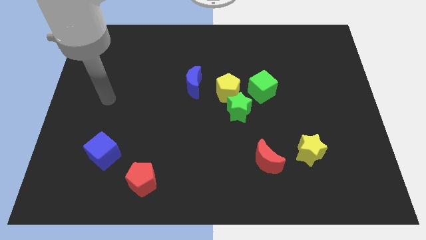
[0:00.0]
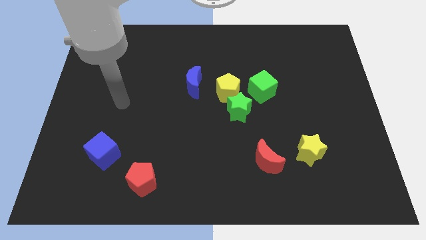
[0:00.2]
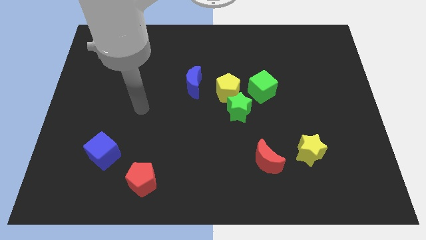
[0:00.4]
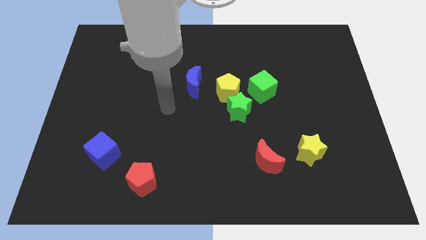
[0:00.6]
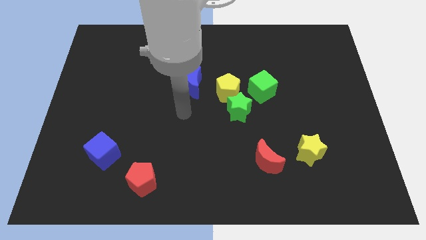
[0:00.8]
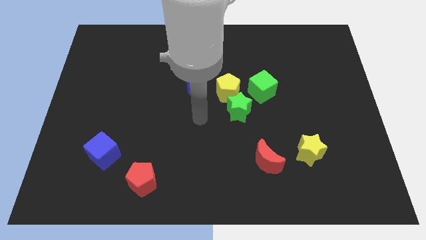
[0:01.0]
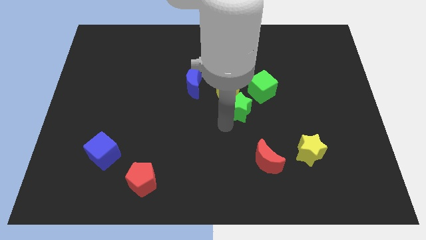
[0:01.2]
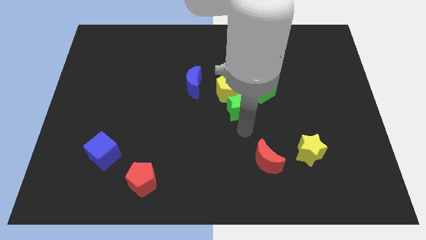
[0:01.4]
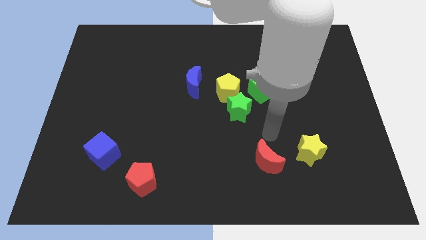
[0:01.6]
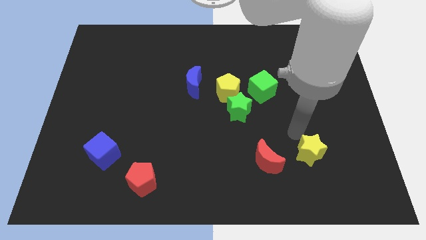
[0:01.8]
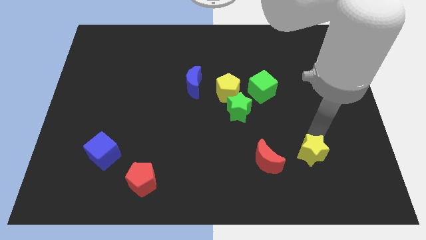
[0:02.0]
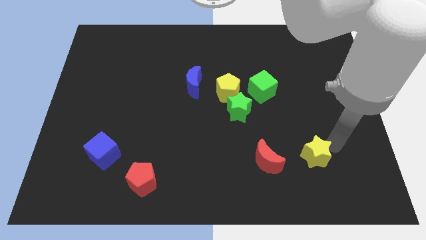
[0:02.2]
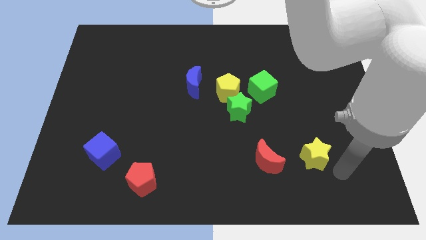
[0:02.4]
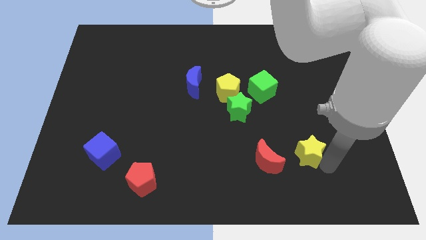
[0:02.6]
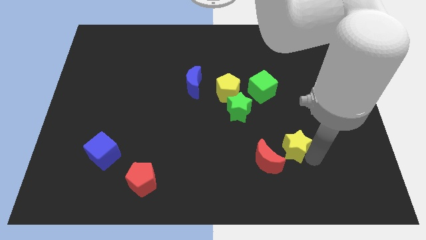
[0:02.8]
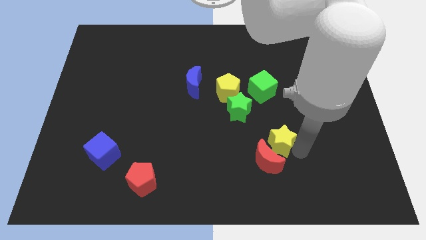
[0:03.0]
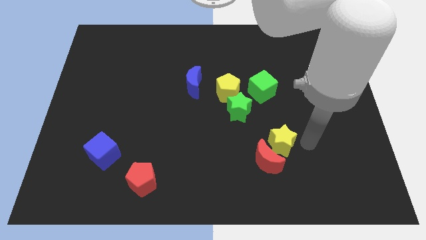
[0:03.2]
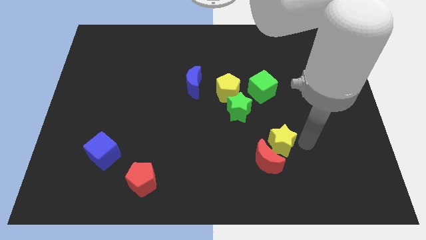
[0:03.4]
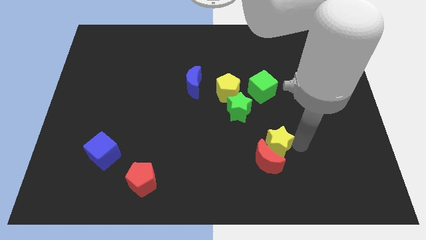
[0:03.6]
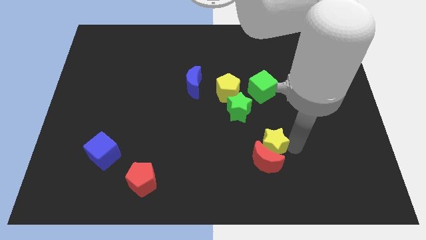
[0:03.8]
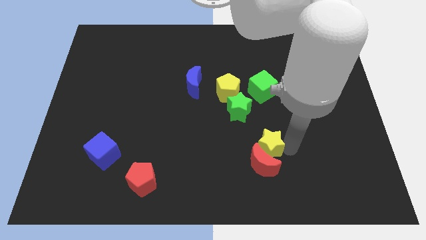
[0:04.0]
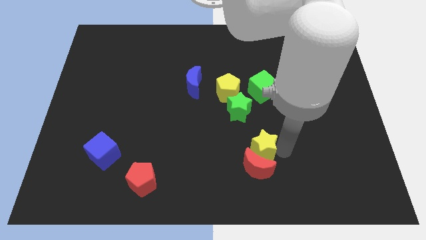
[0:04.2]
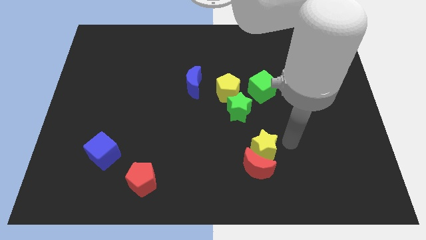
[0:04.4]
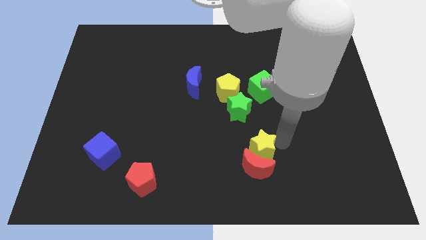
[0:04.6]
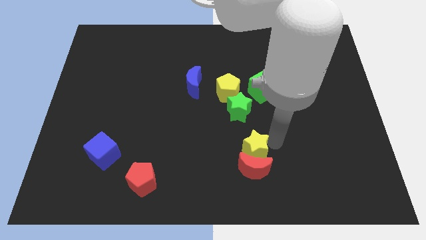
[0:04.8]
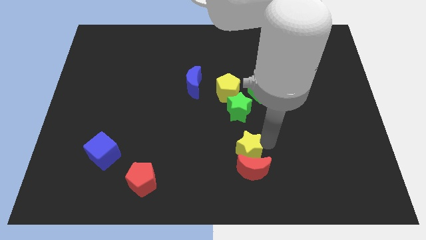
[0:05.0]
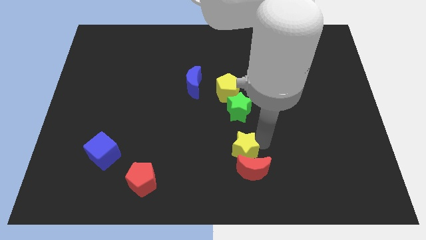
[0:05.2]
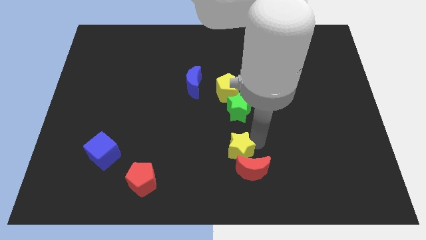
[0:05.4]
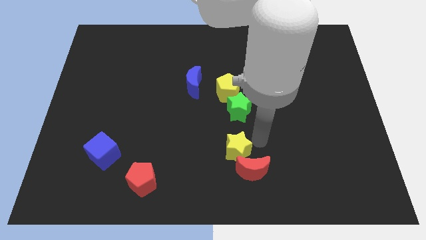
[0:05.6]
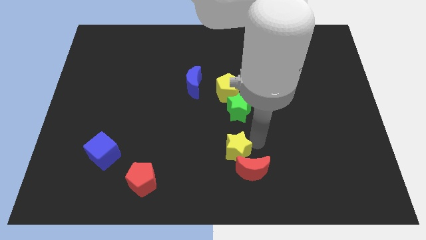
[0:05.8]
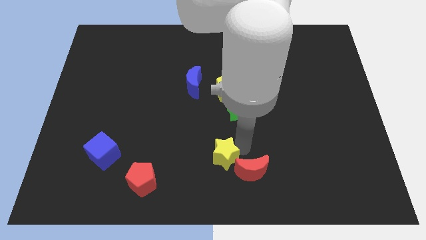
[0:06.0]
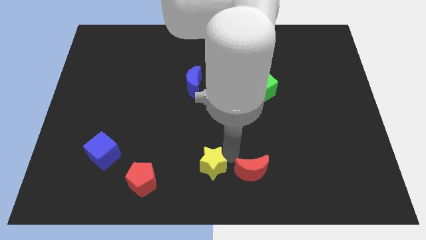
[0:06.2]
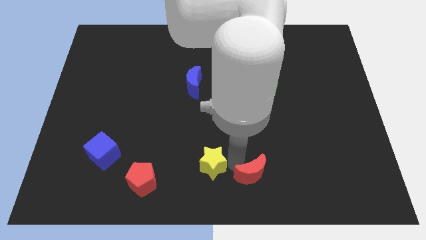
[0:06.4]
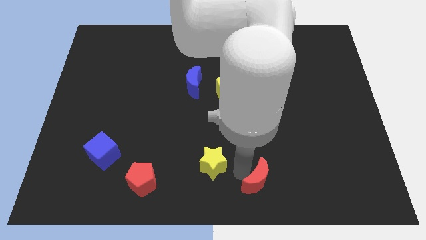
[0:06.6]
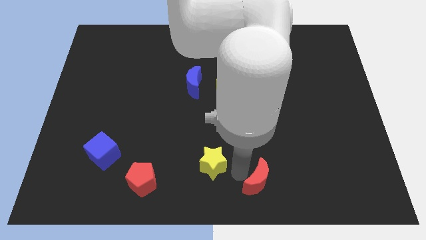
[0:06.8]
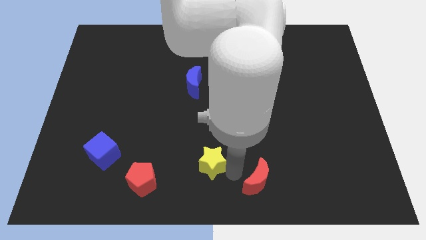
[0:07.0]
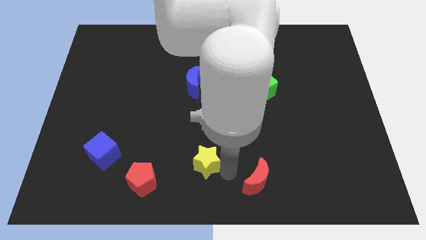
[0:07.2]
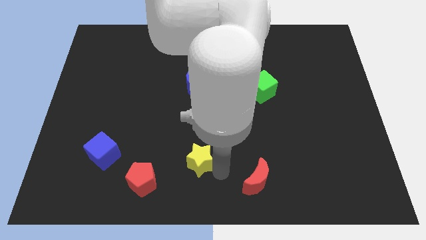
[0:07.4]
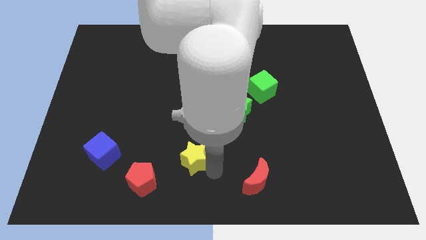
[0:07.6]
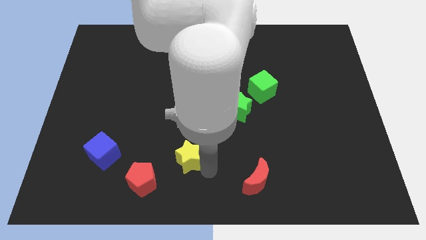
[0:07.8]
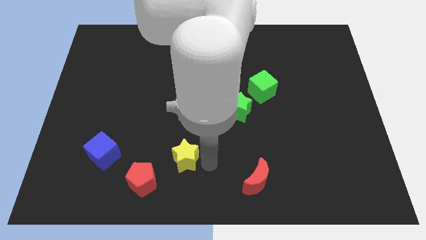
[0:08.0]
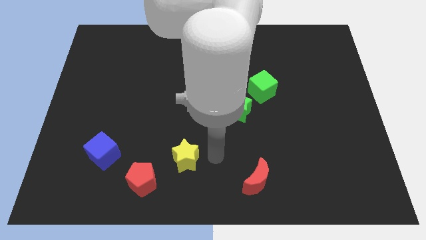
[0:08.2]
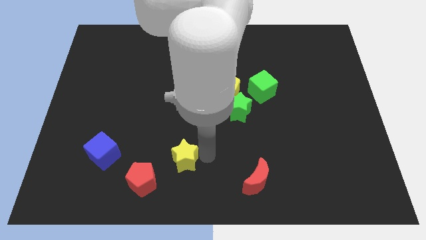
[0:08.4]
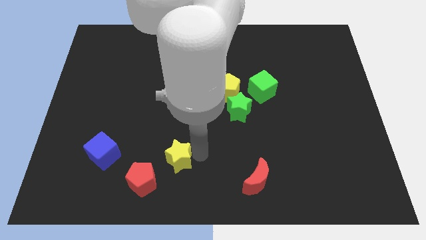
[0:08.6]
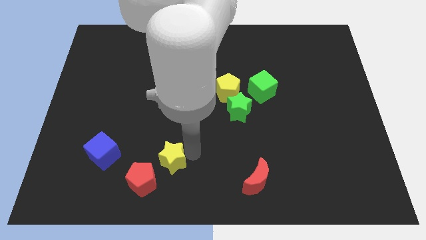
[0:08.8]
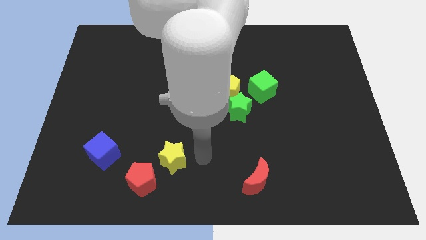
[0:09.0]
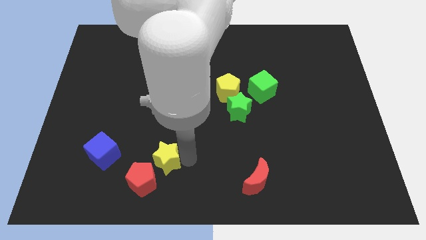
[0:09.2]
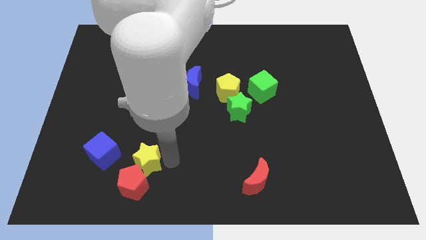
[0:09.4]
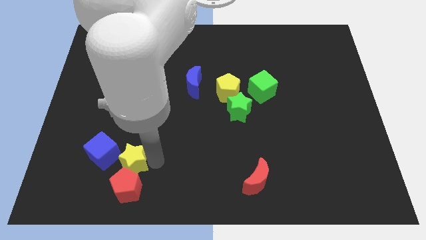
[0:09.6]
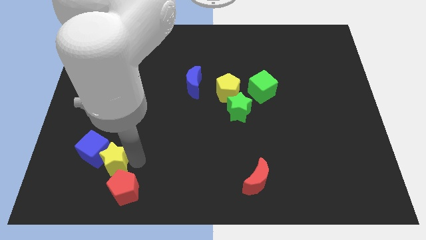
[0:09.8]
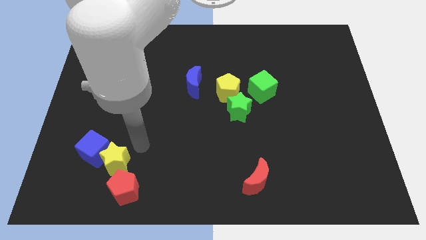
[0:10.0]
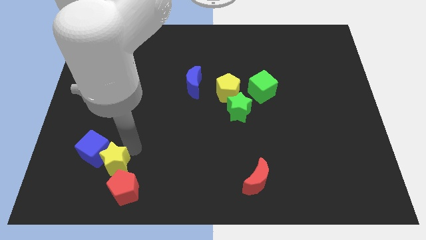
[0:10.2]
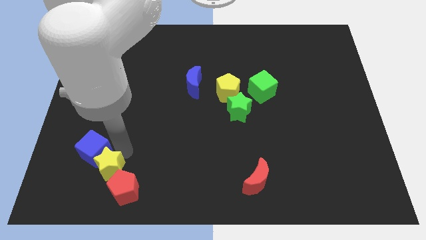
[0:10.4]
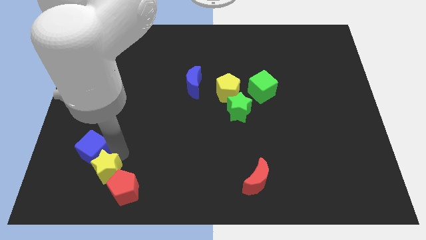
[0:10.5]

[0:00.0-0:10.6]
slide the yellow star to the left side of the red pentagon

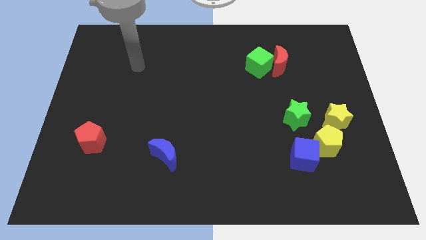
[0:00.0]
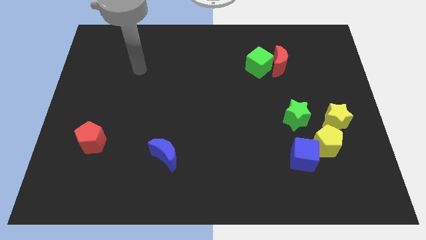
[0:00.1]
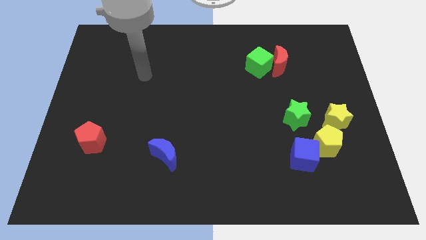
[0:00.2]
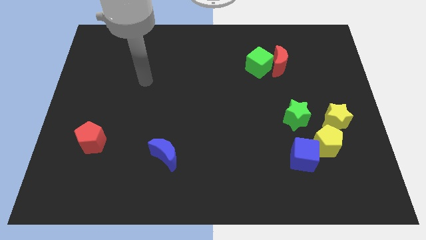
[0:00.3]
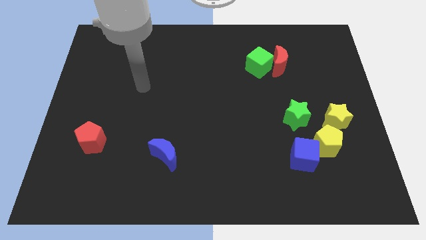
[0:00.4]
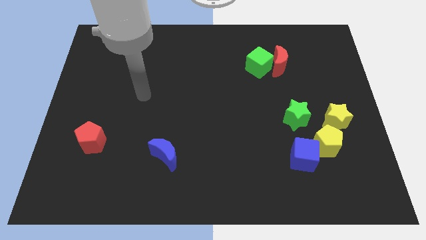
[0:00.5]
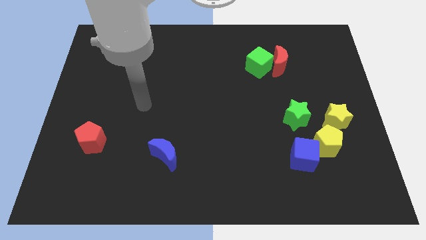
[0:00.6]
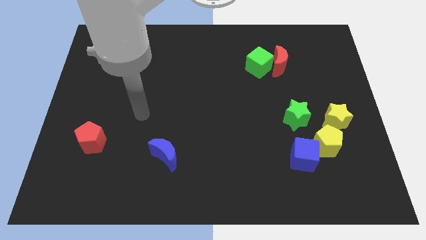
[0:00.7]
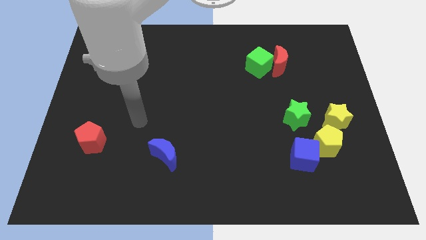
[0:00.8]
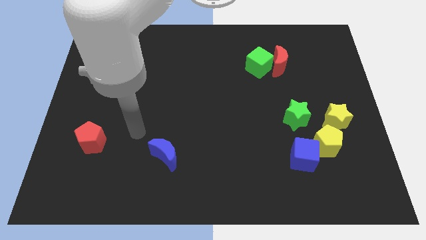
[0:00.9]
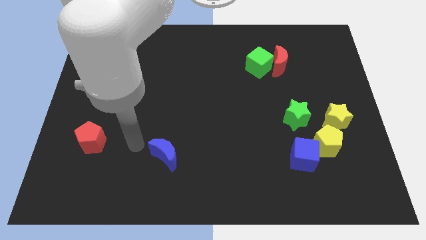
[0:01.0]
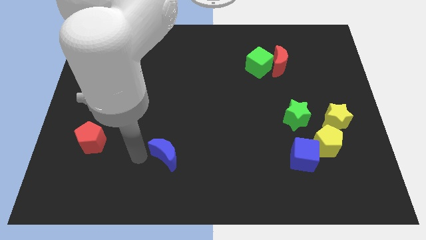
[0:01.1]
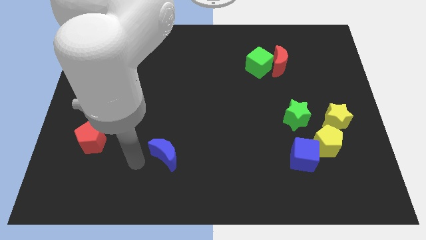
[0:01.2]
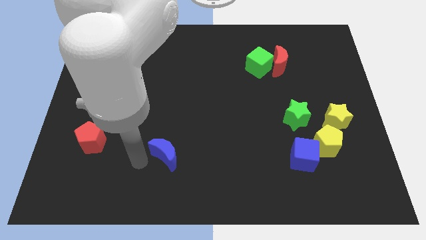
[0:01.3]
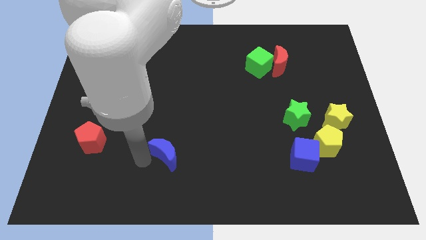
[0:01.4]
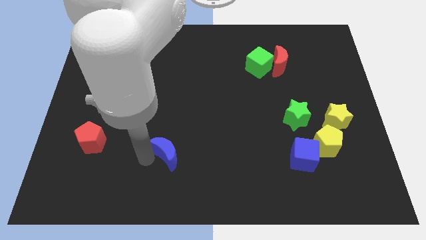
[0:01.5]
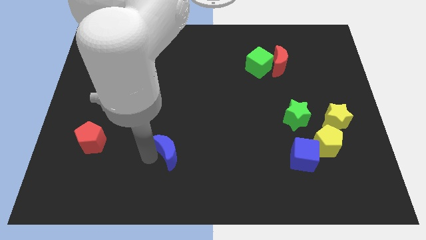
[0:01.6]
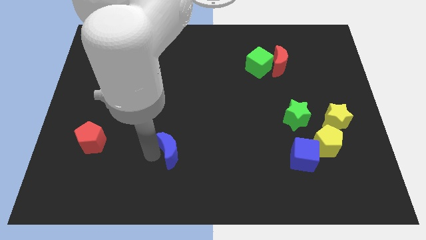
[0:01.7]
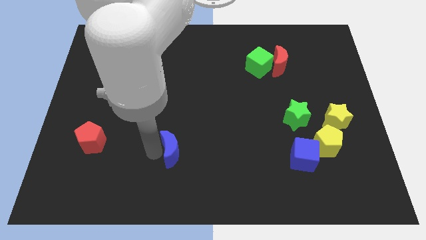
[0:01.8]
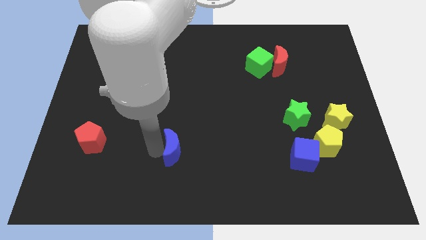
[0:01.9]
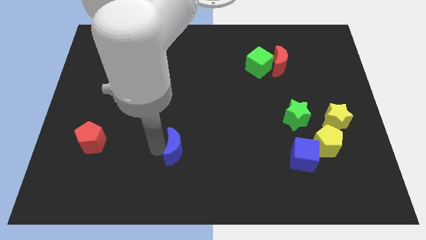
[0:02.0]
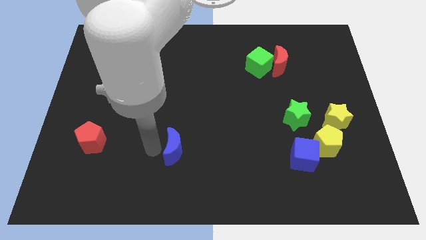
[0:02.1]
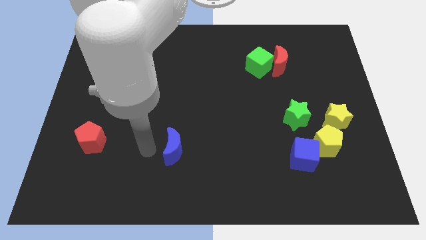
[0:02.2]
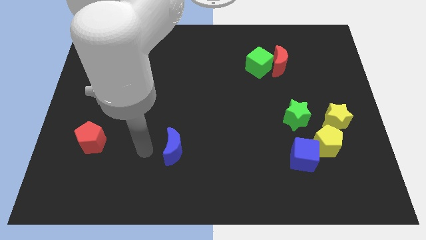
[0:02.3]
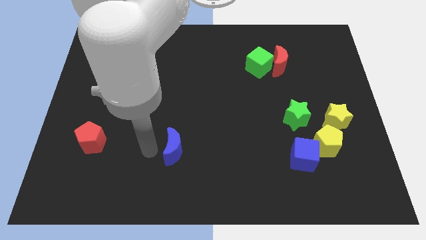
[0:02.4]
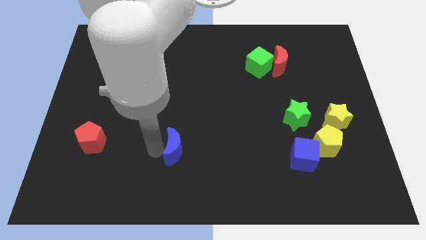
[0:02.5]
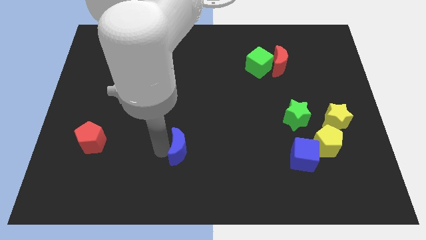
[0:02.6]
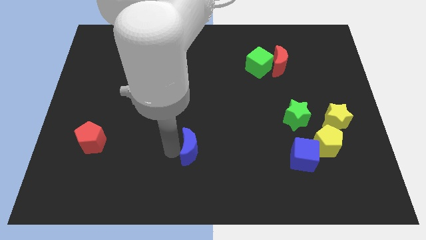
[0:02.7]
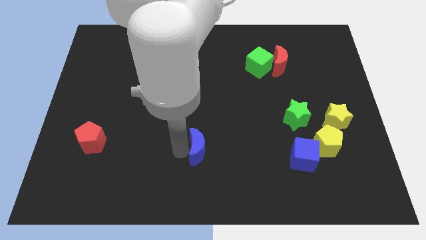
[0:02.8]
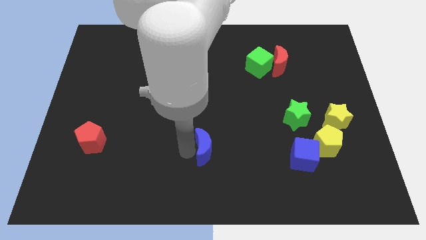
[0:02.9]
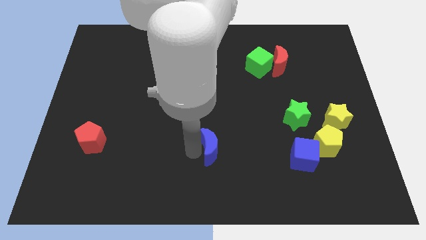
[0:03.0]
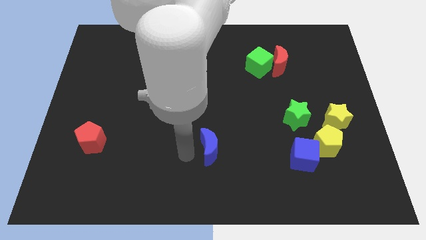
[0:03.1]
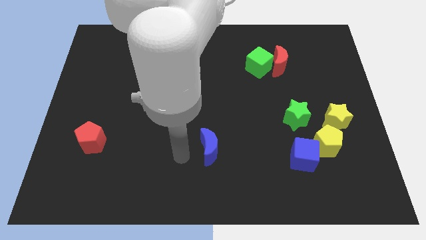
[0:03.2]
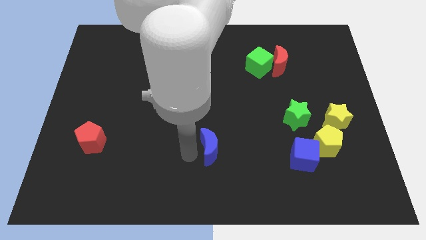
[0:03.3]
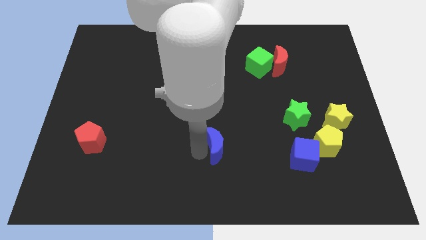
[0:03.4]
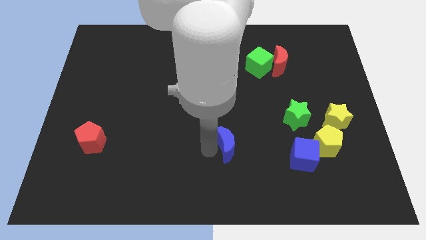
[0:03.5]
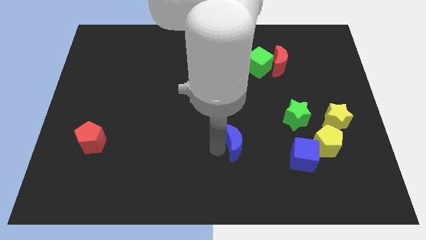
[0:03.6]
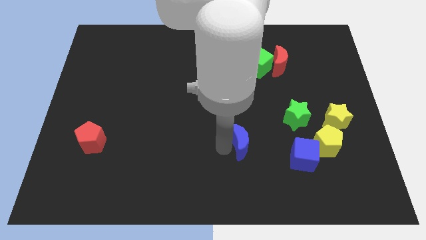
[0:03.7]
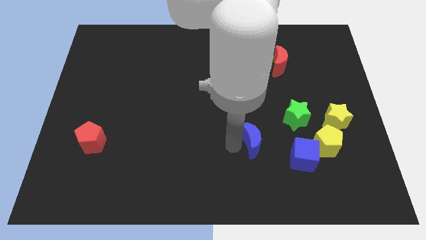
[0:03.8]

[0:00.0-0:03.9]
slide the blue moon to the bottom left side of the green star
